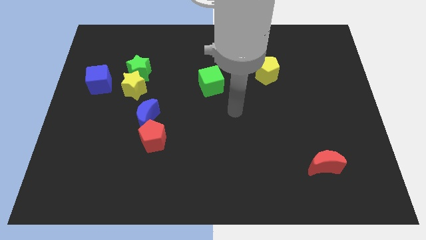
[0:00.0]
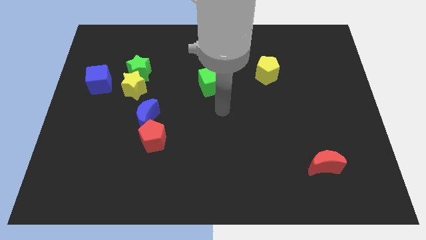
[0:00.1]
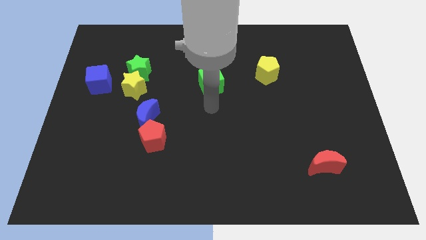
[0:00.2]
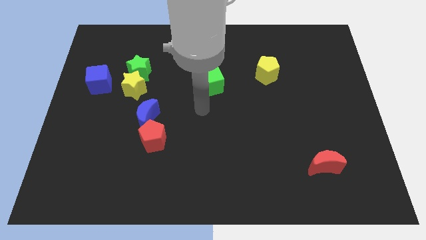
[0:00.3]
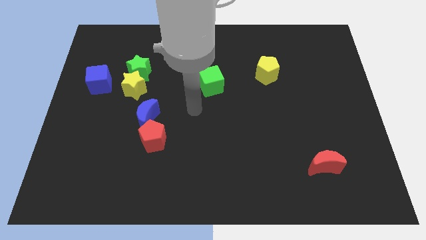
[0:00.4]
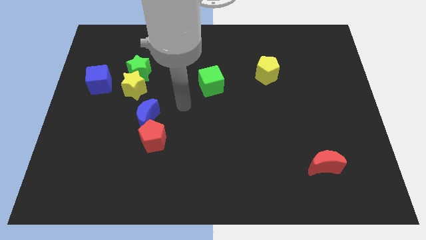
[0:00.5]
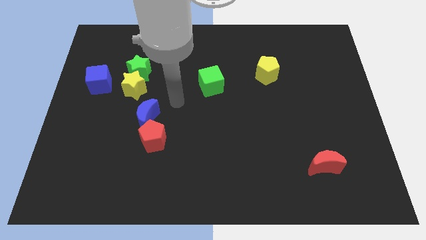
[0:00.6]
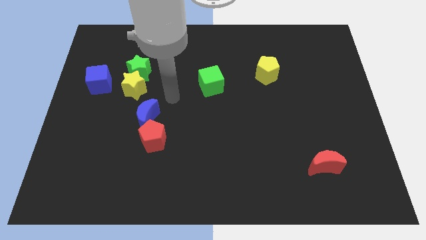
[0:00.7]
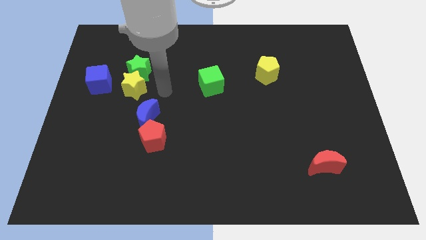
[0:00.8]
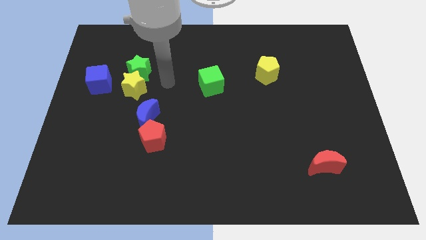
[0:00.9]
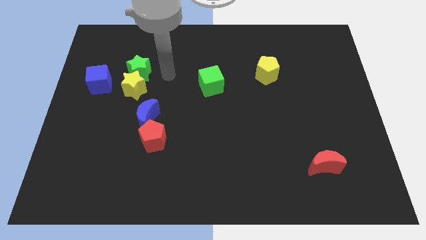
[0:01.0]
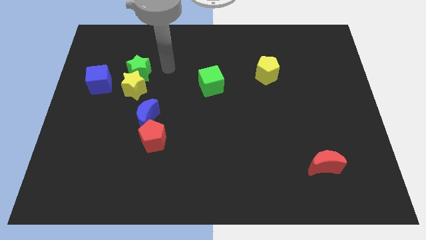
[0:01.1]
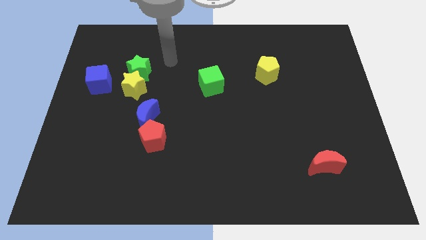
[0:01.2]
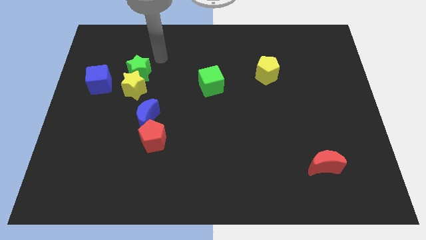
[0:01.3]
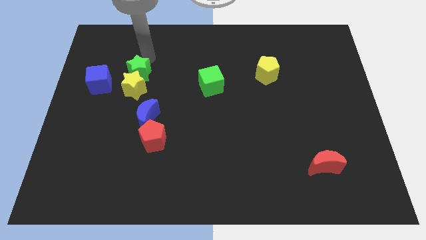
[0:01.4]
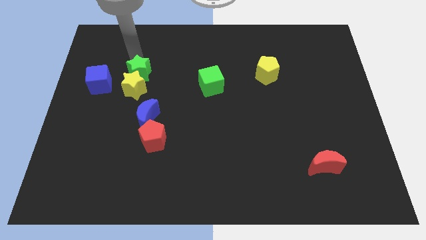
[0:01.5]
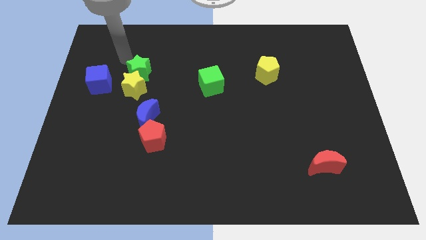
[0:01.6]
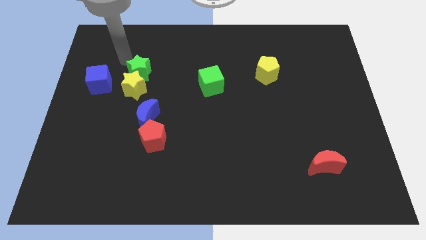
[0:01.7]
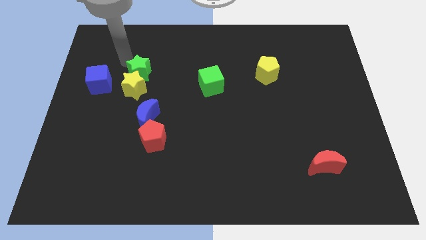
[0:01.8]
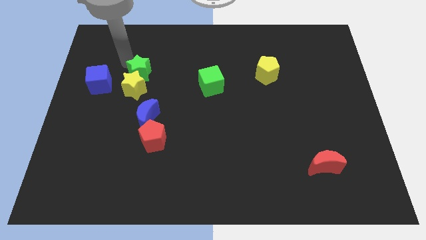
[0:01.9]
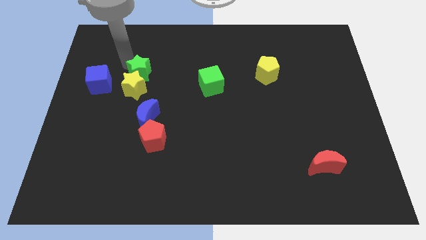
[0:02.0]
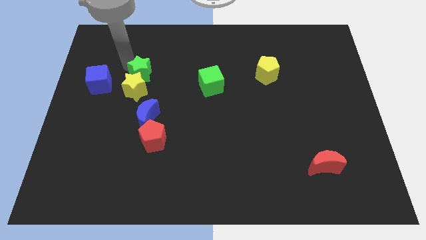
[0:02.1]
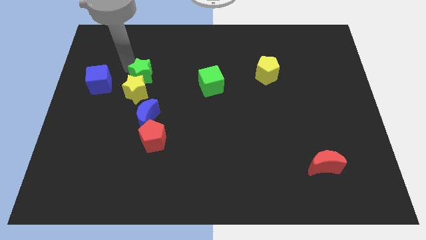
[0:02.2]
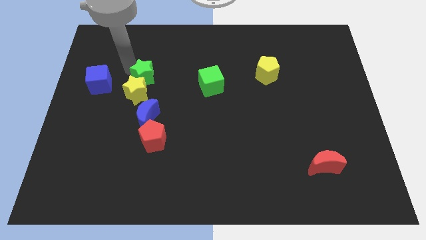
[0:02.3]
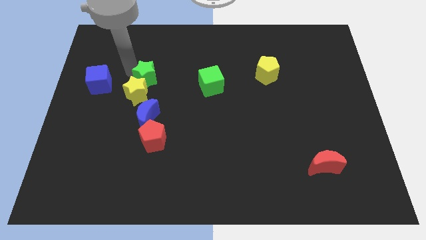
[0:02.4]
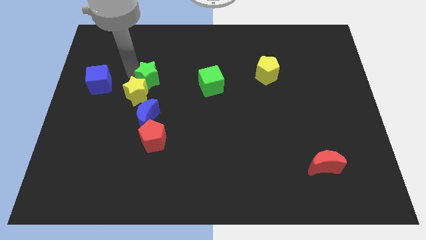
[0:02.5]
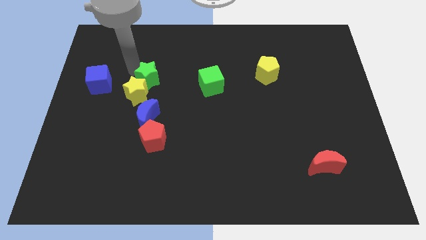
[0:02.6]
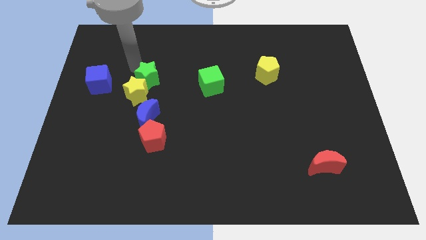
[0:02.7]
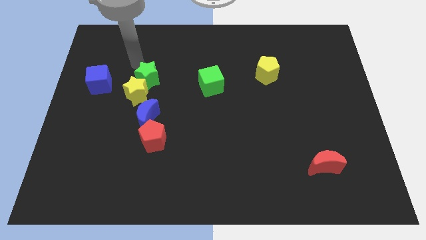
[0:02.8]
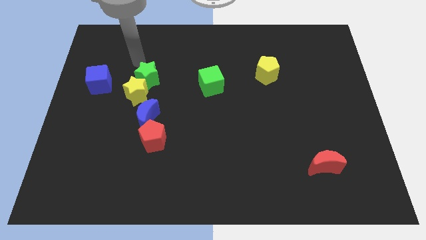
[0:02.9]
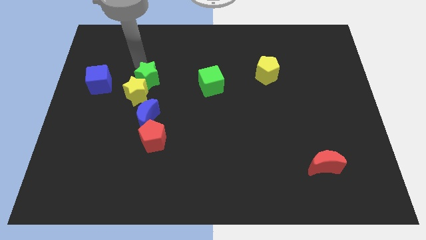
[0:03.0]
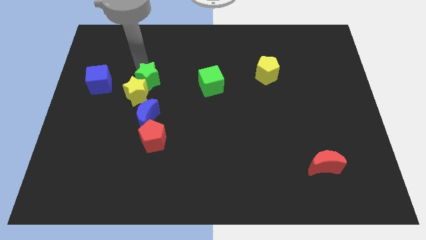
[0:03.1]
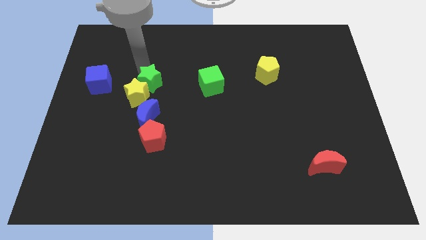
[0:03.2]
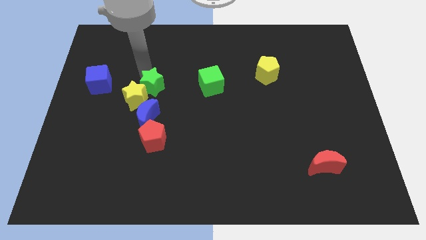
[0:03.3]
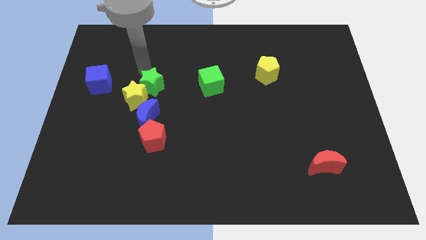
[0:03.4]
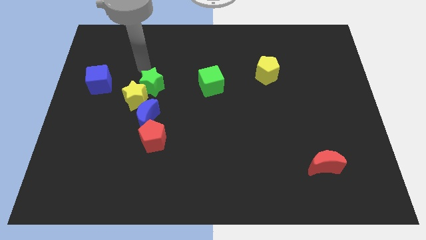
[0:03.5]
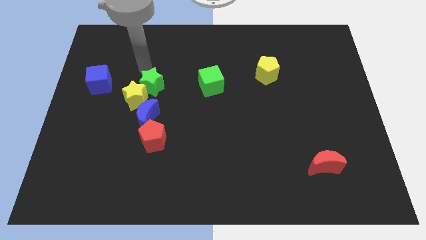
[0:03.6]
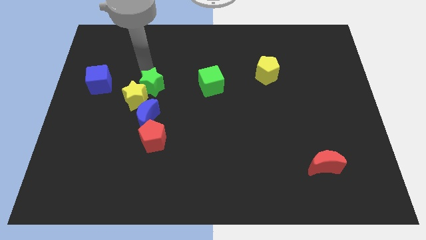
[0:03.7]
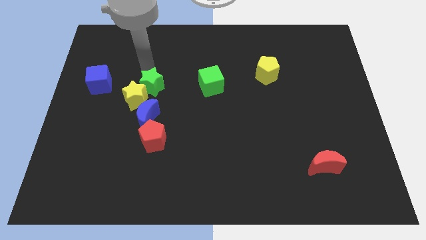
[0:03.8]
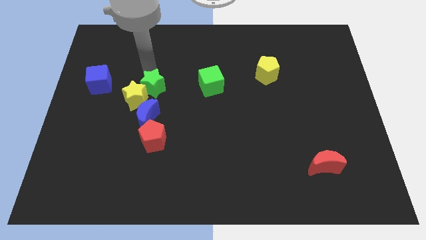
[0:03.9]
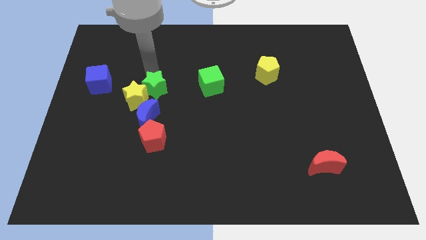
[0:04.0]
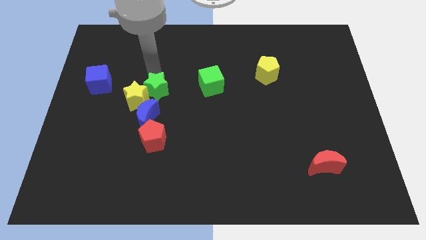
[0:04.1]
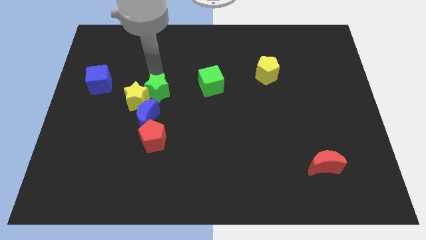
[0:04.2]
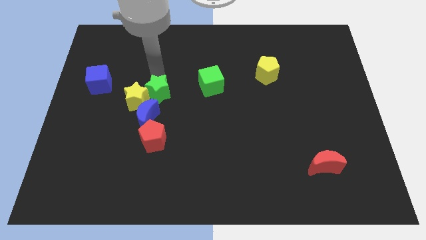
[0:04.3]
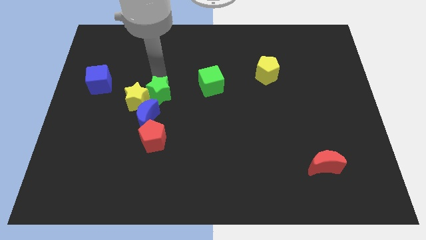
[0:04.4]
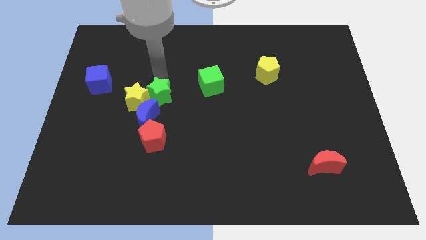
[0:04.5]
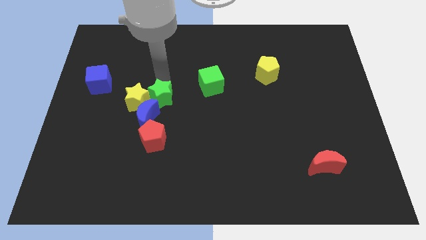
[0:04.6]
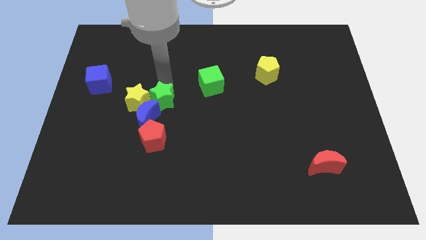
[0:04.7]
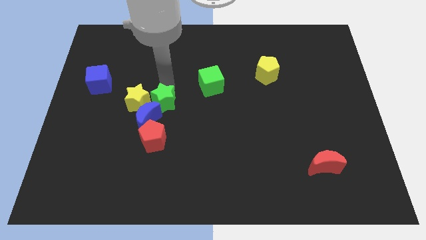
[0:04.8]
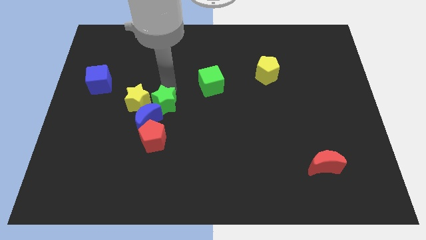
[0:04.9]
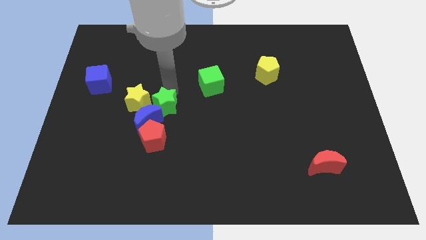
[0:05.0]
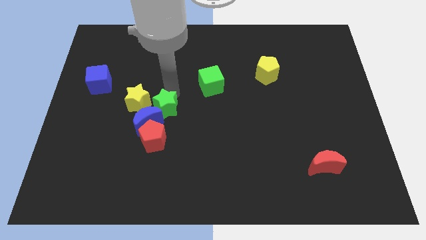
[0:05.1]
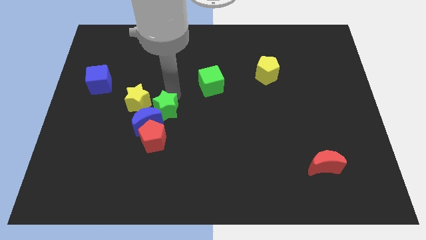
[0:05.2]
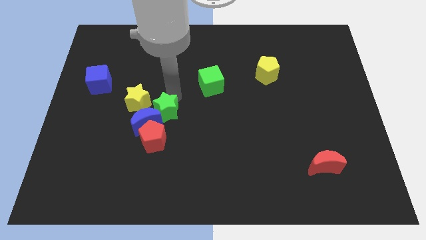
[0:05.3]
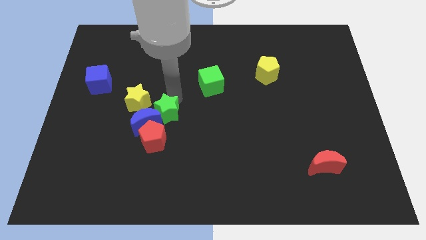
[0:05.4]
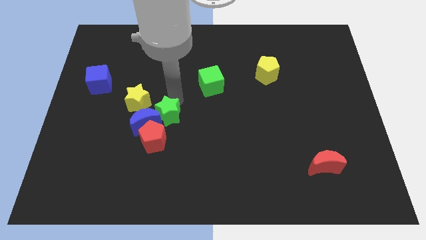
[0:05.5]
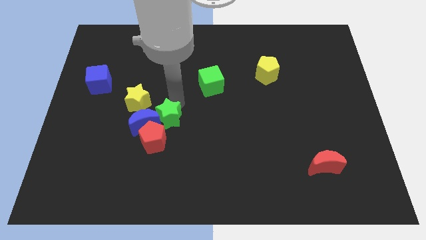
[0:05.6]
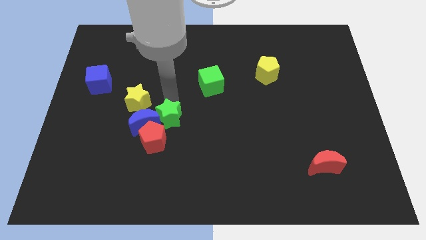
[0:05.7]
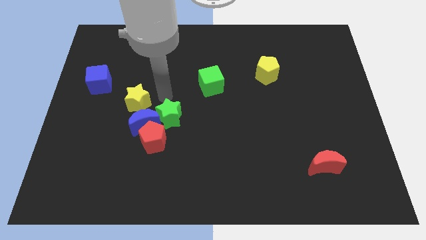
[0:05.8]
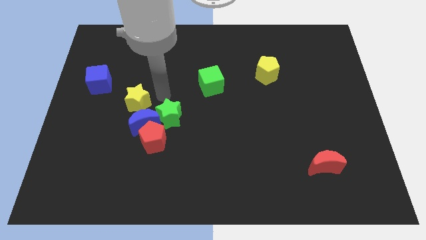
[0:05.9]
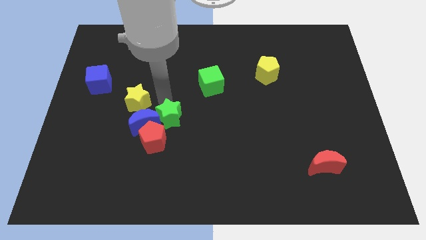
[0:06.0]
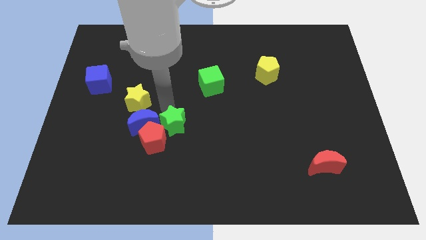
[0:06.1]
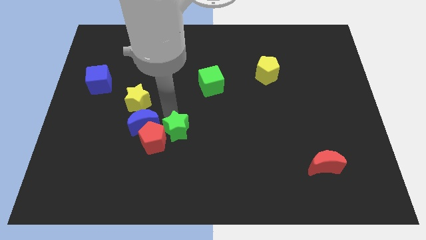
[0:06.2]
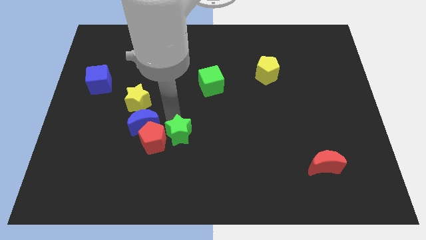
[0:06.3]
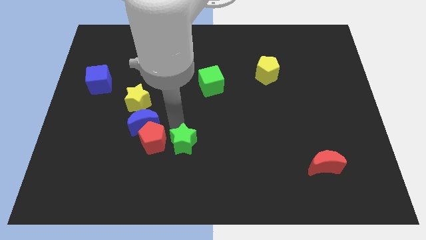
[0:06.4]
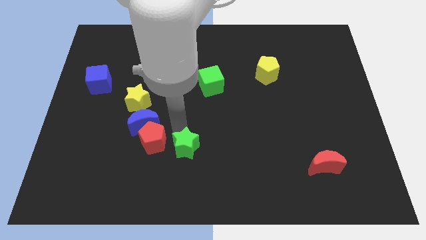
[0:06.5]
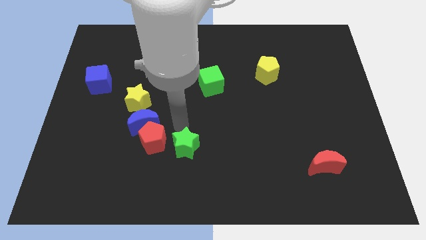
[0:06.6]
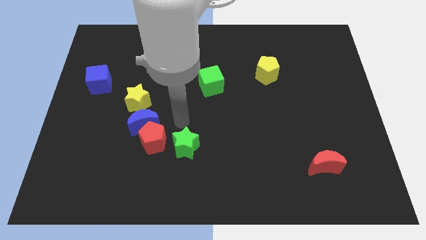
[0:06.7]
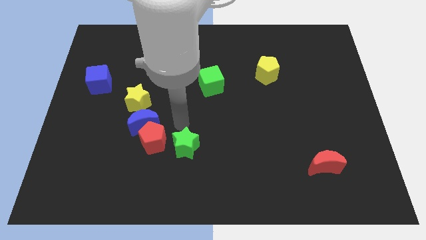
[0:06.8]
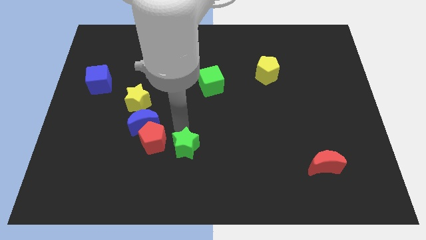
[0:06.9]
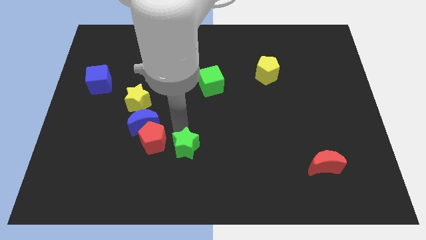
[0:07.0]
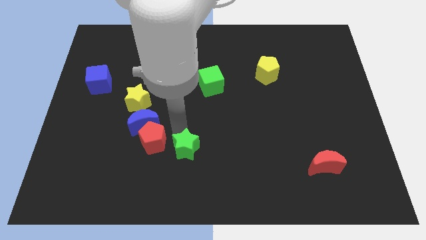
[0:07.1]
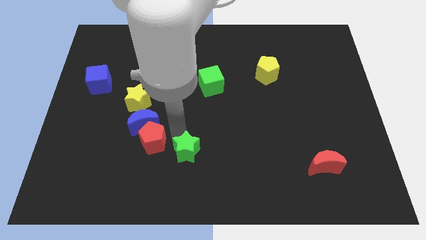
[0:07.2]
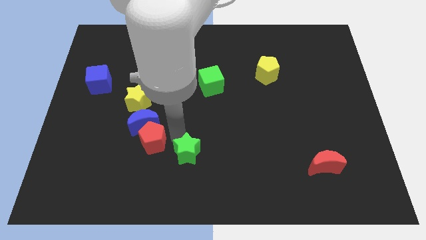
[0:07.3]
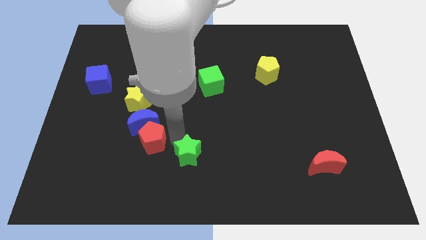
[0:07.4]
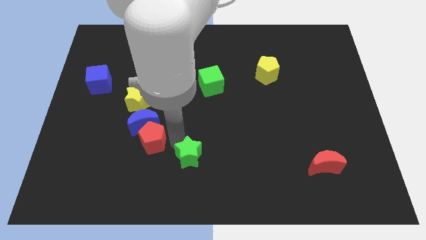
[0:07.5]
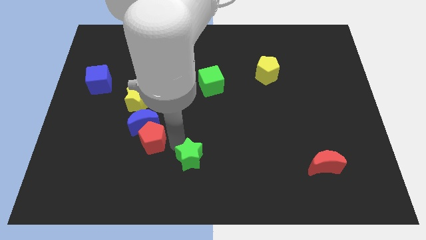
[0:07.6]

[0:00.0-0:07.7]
push the green star to the bottom side
